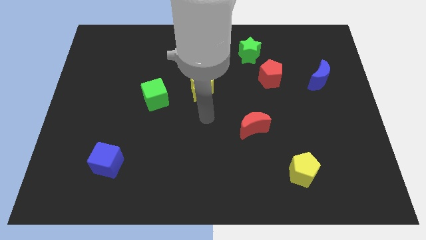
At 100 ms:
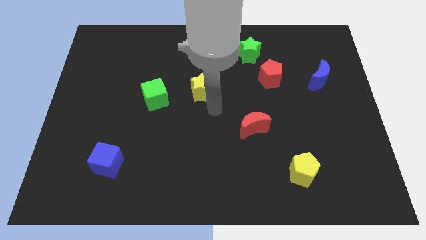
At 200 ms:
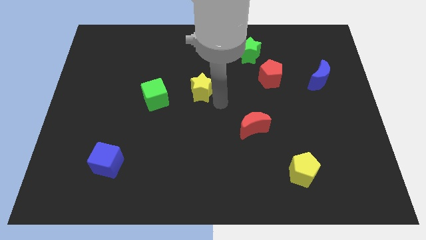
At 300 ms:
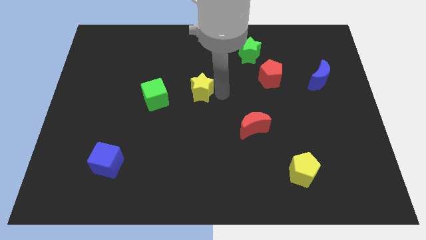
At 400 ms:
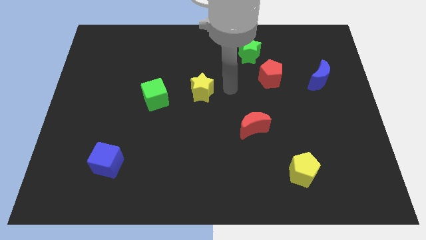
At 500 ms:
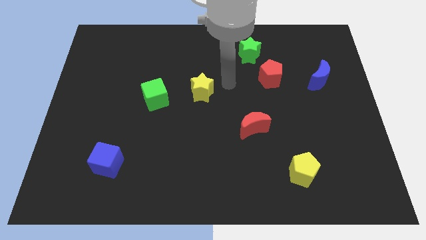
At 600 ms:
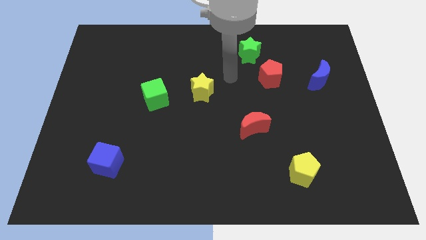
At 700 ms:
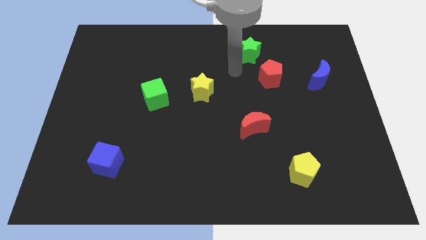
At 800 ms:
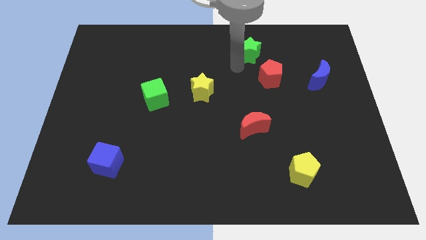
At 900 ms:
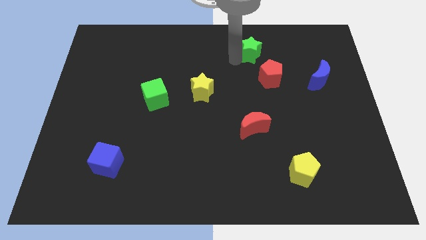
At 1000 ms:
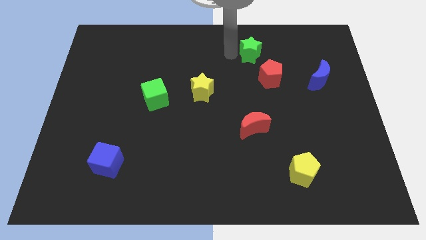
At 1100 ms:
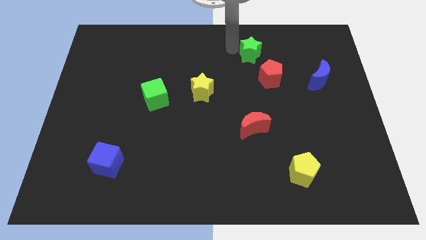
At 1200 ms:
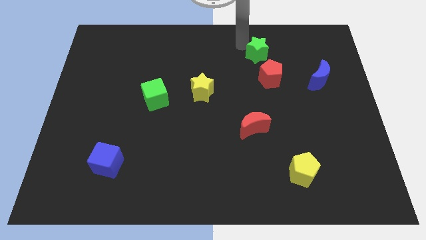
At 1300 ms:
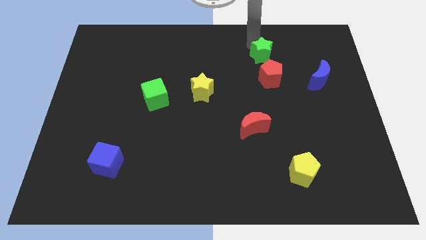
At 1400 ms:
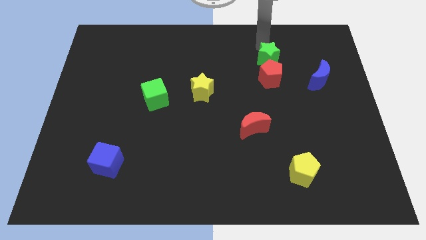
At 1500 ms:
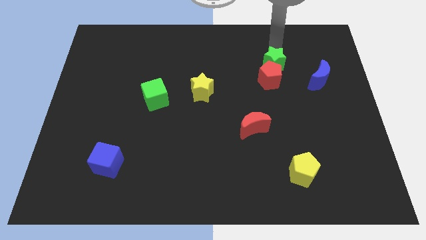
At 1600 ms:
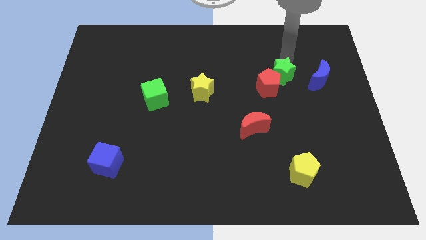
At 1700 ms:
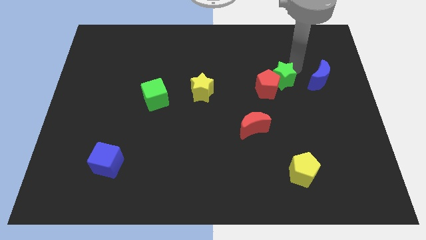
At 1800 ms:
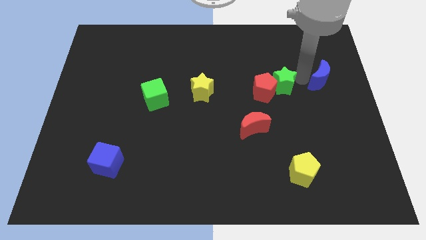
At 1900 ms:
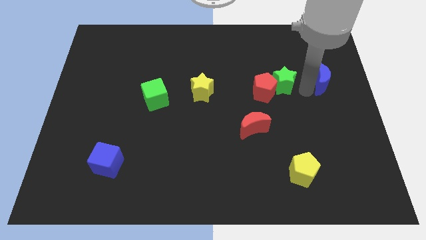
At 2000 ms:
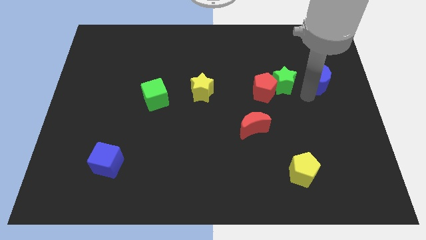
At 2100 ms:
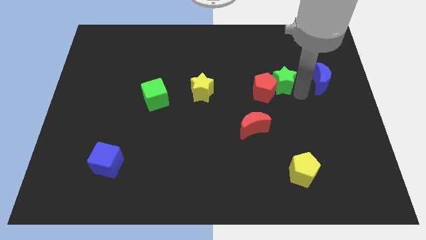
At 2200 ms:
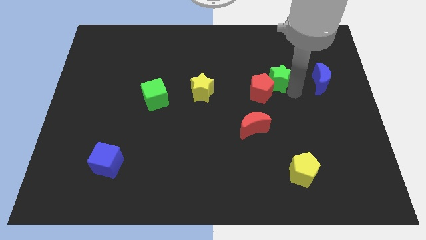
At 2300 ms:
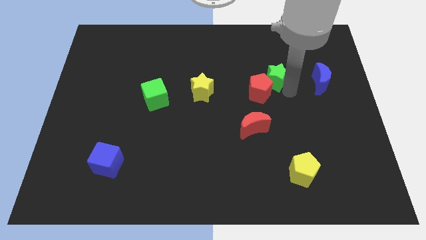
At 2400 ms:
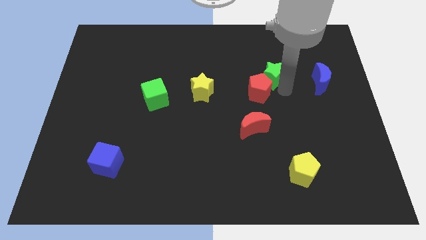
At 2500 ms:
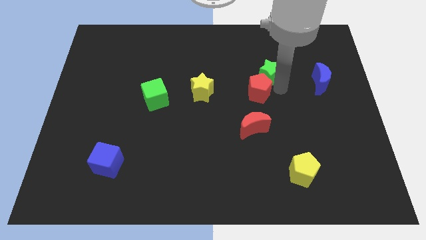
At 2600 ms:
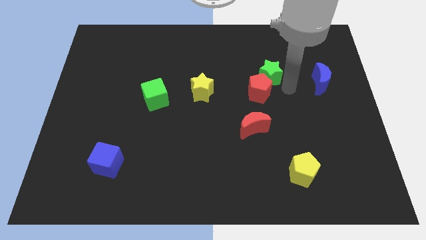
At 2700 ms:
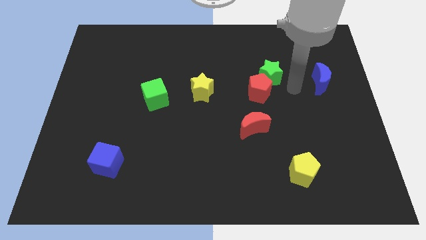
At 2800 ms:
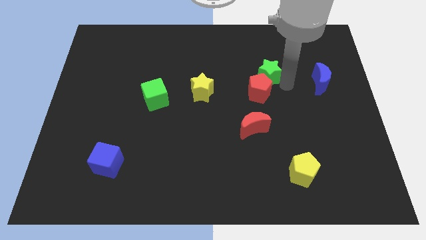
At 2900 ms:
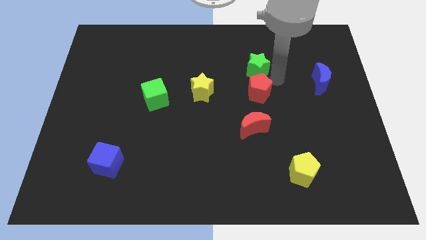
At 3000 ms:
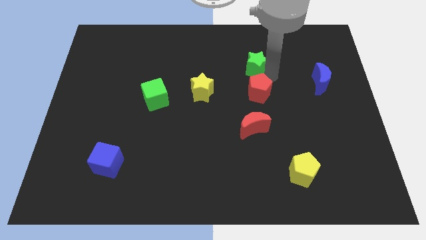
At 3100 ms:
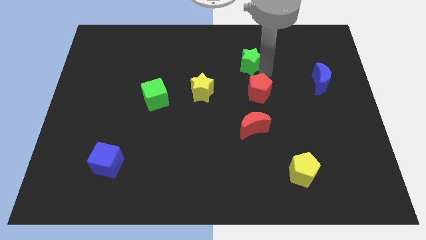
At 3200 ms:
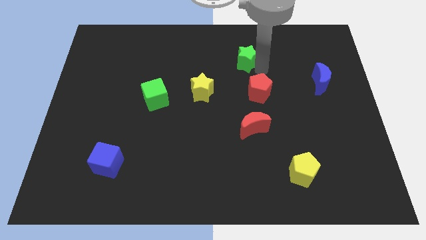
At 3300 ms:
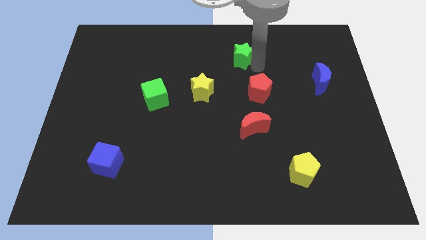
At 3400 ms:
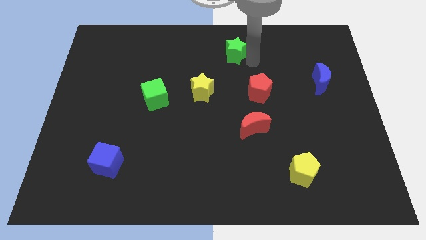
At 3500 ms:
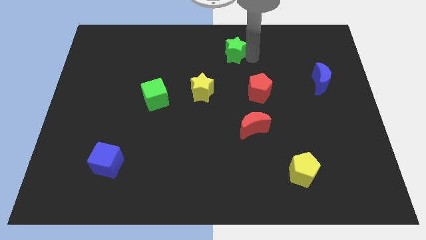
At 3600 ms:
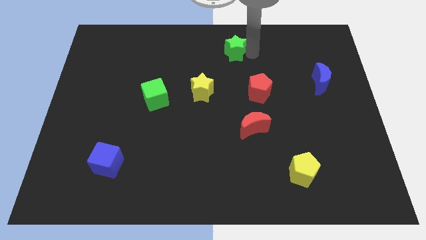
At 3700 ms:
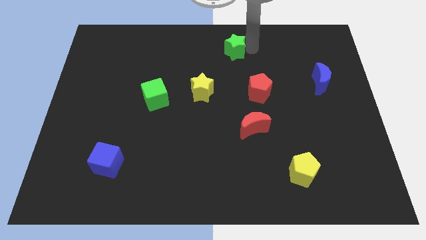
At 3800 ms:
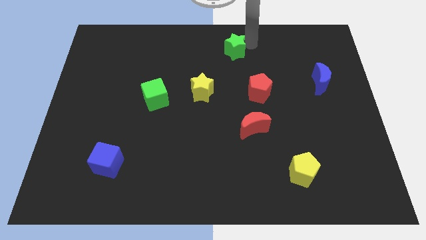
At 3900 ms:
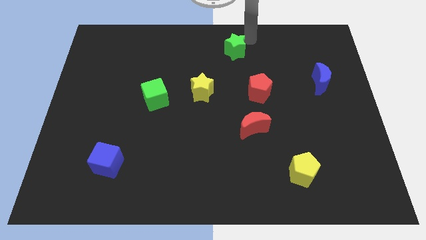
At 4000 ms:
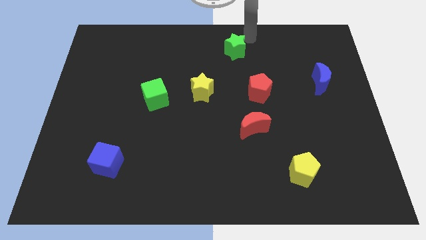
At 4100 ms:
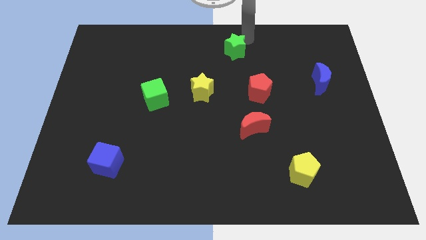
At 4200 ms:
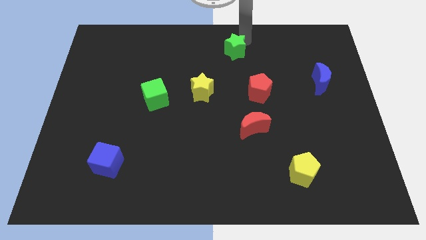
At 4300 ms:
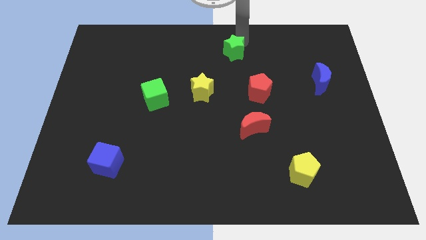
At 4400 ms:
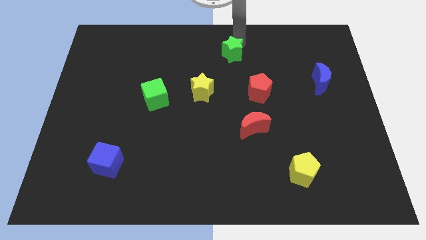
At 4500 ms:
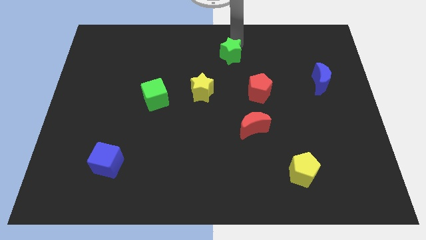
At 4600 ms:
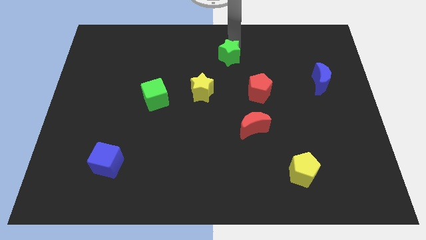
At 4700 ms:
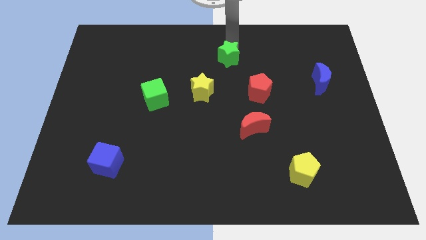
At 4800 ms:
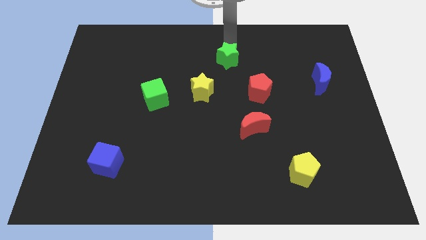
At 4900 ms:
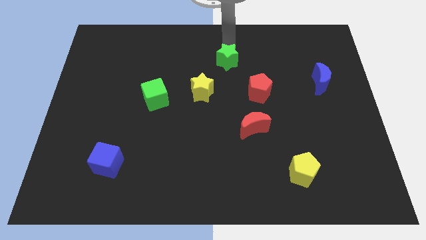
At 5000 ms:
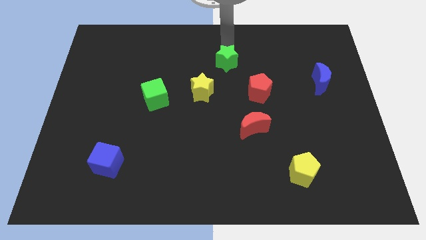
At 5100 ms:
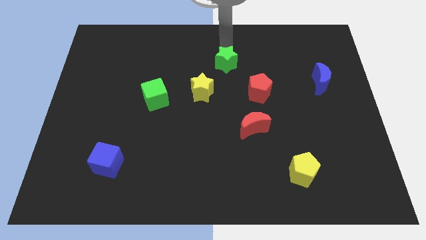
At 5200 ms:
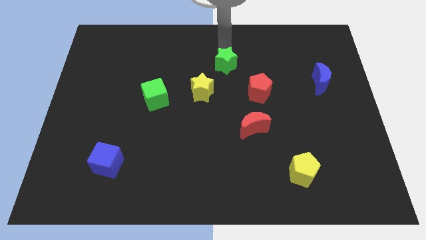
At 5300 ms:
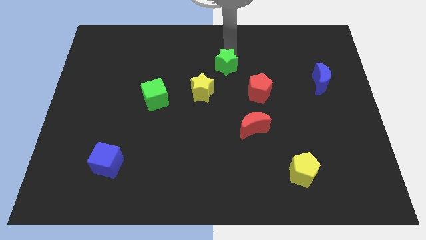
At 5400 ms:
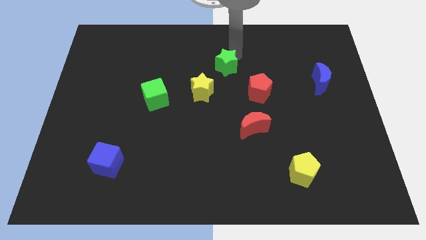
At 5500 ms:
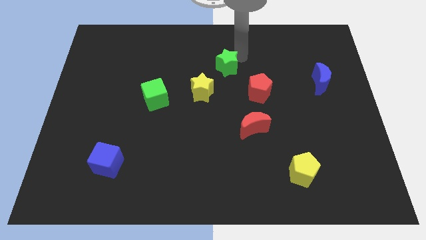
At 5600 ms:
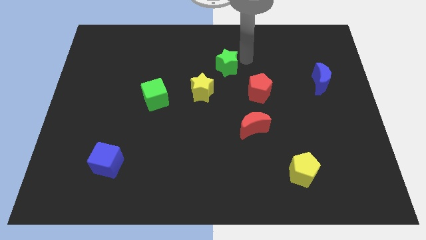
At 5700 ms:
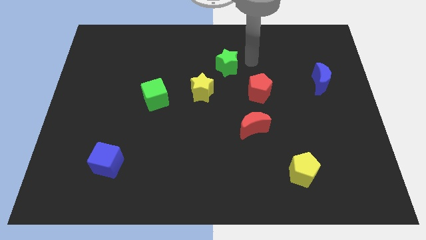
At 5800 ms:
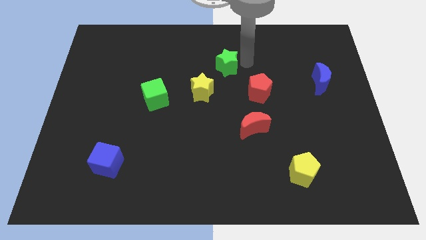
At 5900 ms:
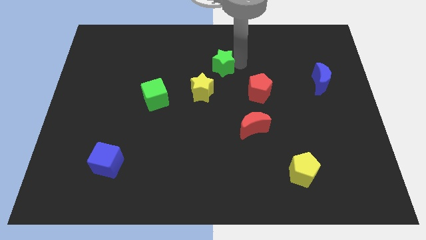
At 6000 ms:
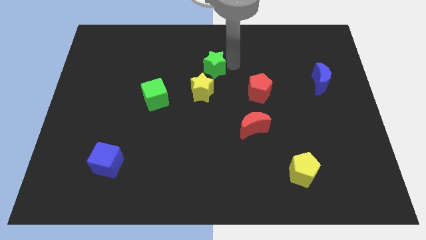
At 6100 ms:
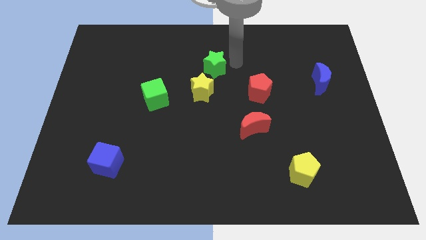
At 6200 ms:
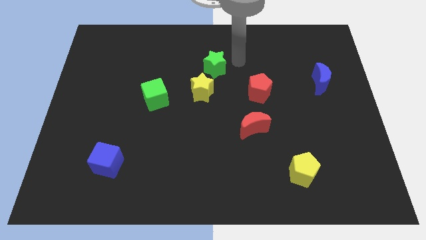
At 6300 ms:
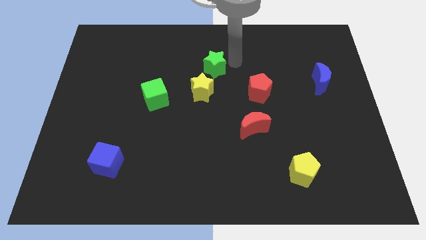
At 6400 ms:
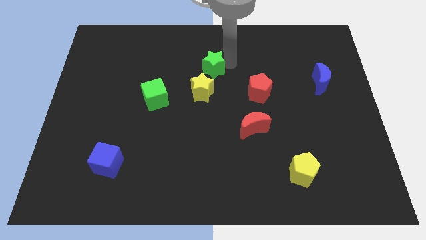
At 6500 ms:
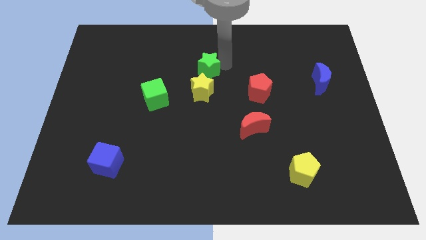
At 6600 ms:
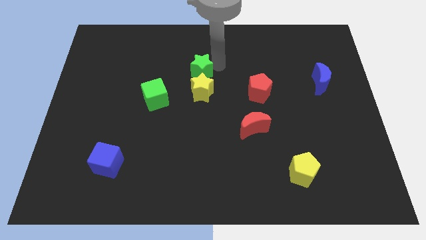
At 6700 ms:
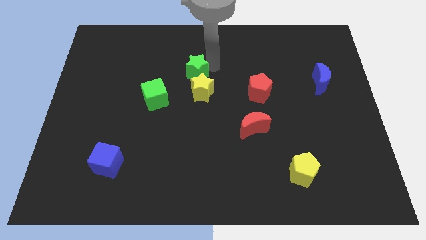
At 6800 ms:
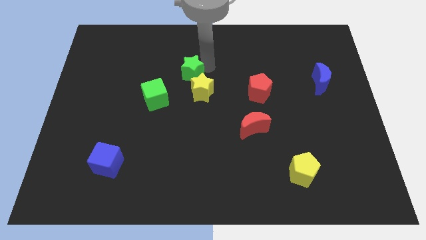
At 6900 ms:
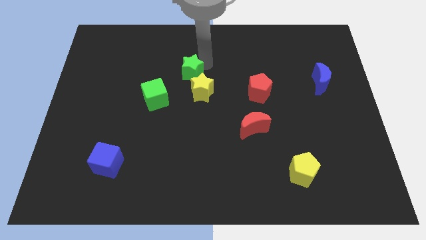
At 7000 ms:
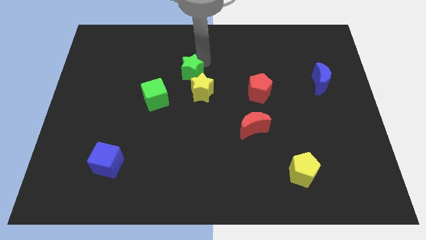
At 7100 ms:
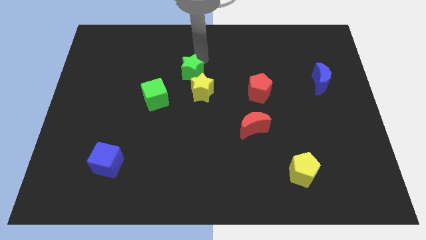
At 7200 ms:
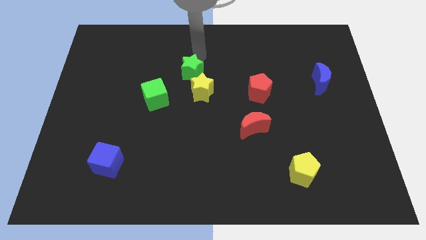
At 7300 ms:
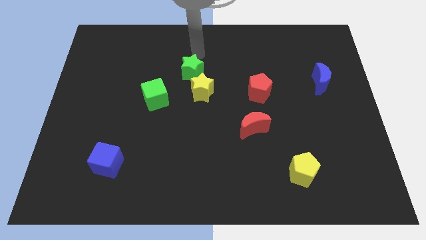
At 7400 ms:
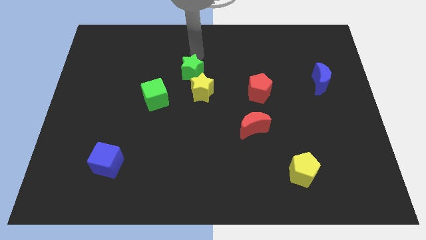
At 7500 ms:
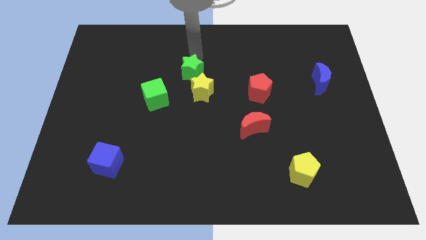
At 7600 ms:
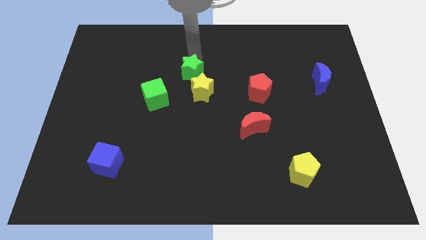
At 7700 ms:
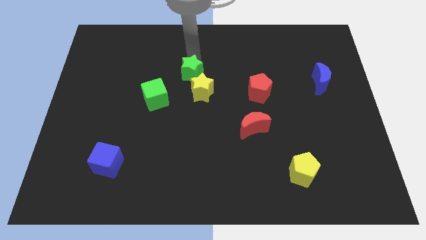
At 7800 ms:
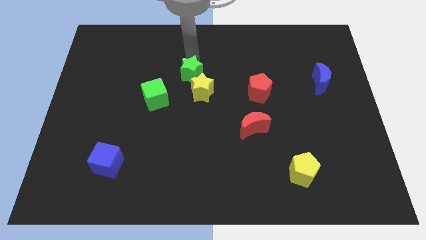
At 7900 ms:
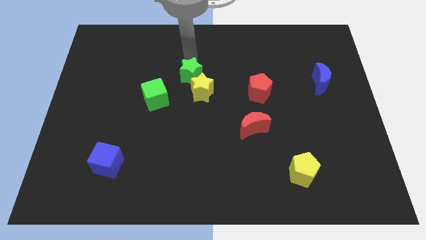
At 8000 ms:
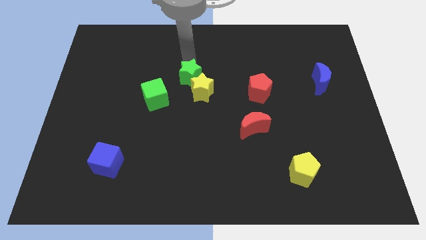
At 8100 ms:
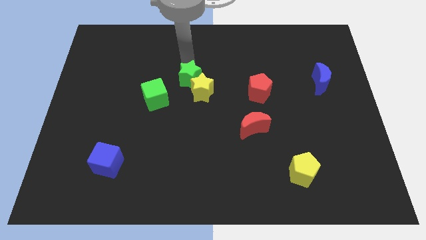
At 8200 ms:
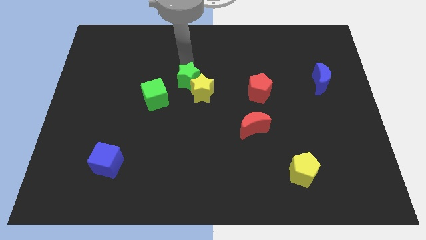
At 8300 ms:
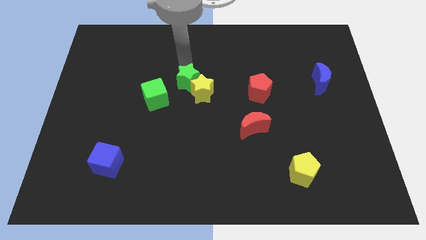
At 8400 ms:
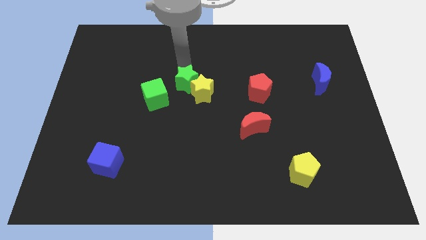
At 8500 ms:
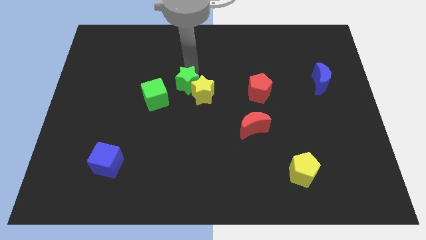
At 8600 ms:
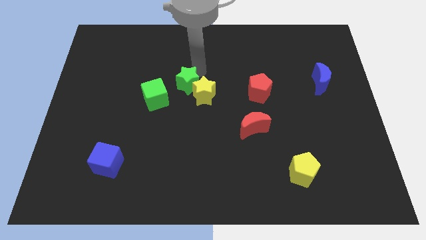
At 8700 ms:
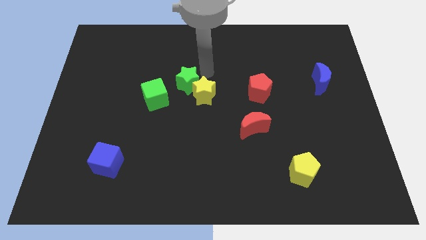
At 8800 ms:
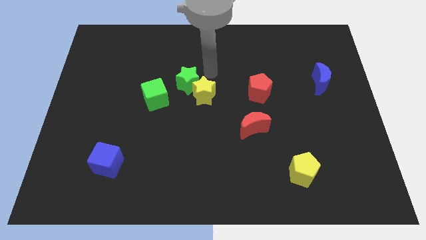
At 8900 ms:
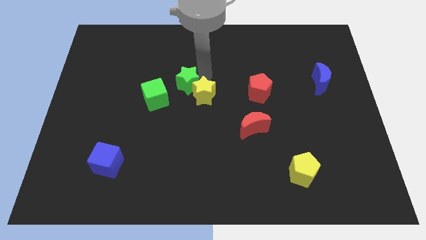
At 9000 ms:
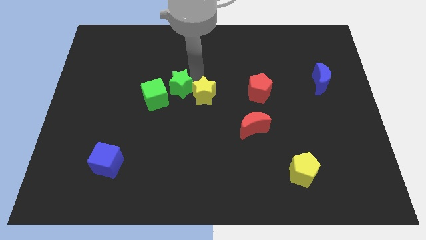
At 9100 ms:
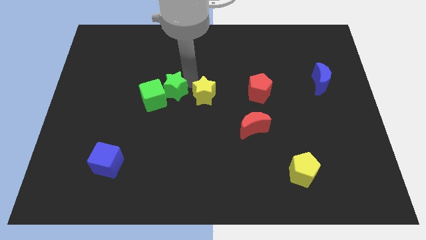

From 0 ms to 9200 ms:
put the green star next to the green cube
